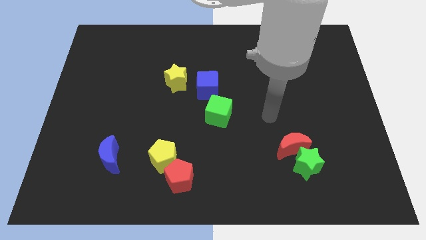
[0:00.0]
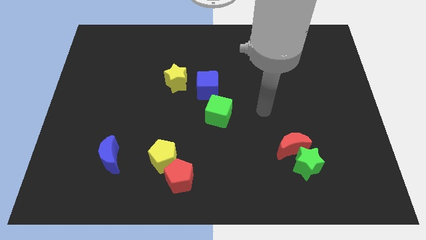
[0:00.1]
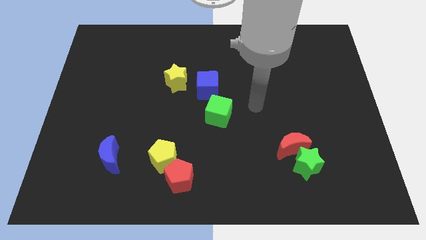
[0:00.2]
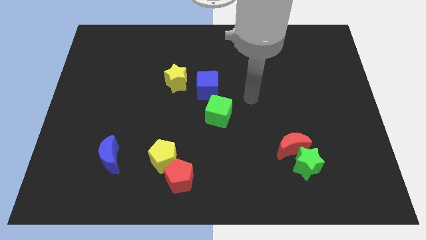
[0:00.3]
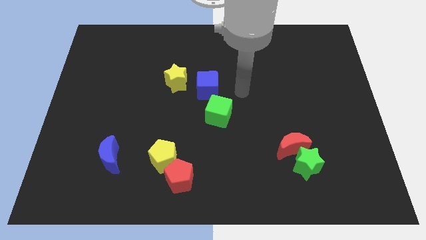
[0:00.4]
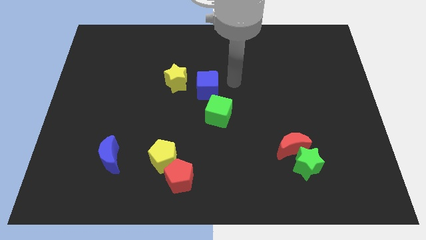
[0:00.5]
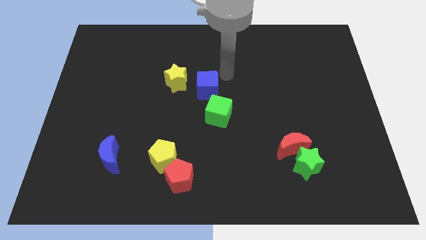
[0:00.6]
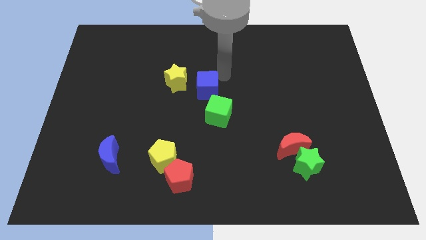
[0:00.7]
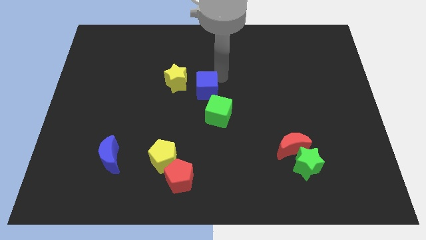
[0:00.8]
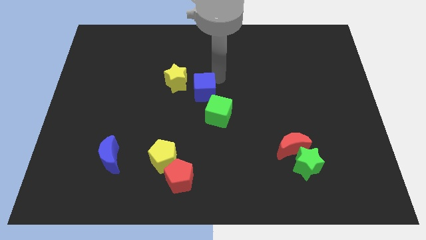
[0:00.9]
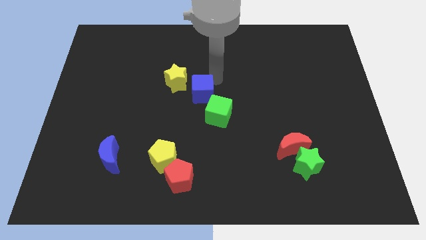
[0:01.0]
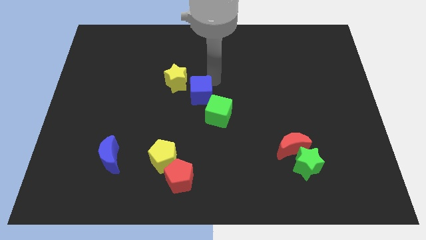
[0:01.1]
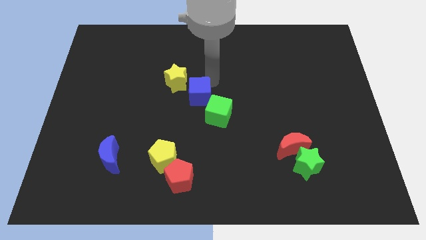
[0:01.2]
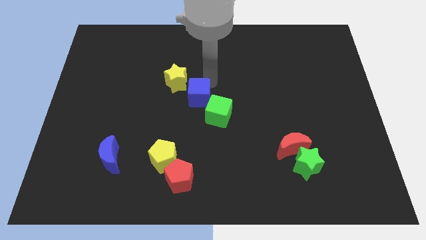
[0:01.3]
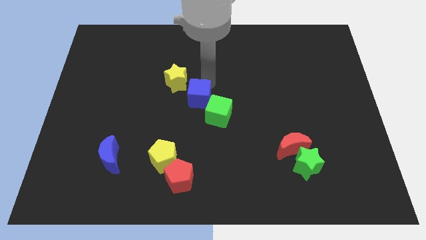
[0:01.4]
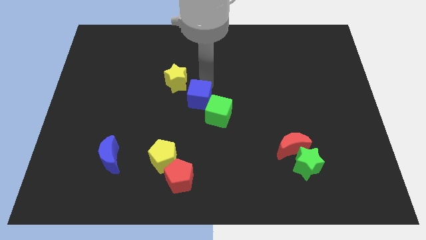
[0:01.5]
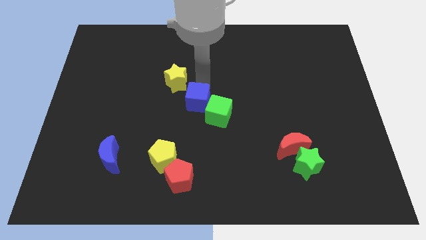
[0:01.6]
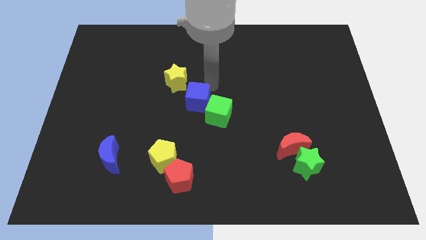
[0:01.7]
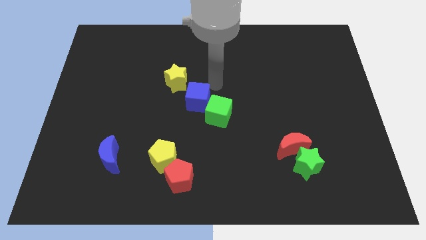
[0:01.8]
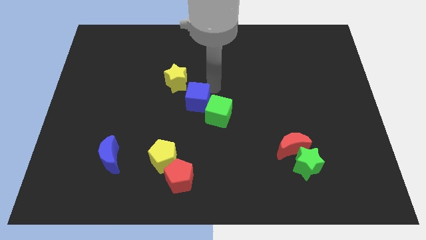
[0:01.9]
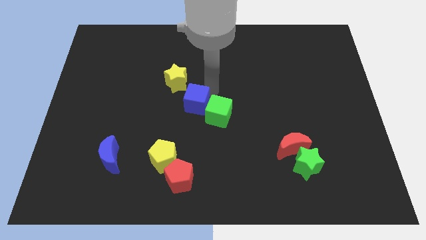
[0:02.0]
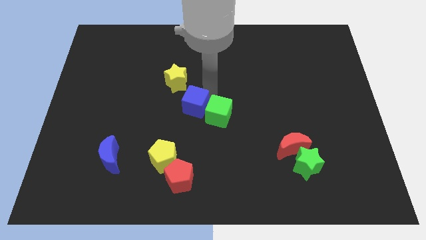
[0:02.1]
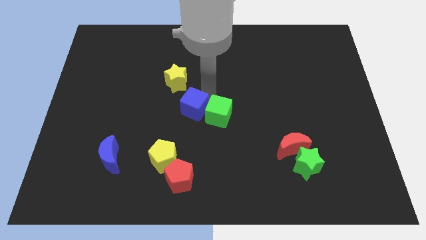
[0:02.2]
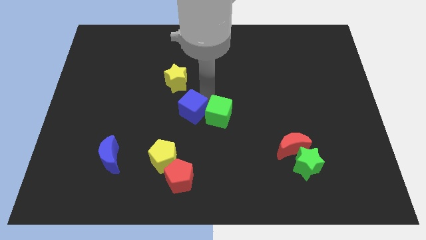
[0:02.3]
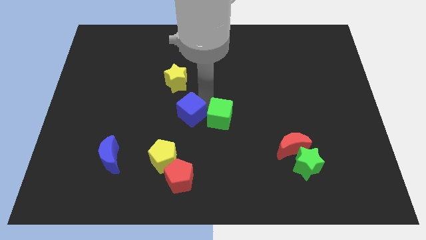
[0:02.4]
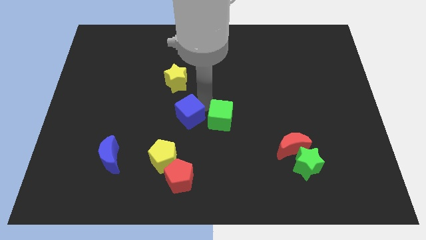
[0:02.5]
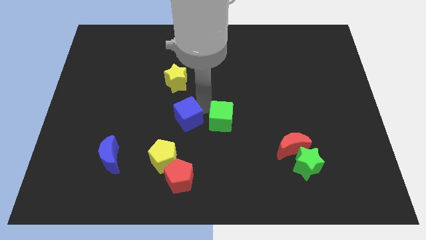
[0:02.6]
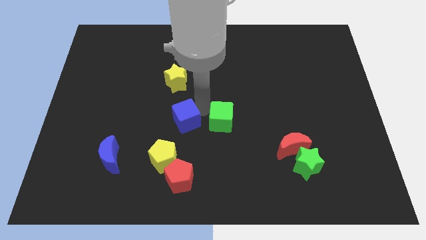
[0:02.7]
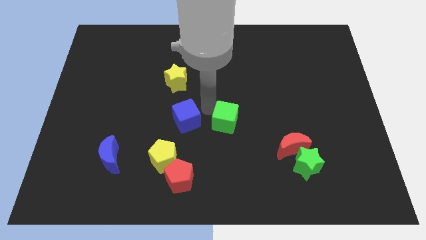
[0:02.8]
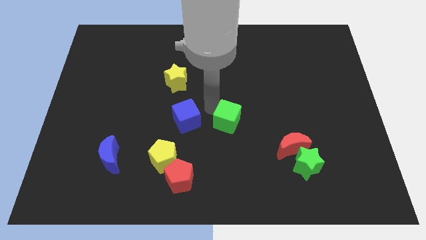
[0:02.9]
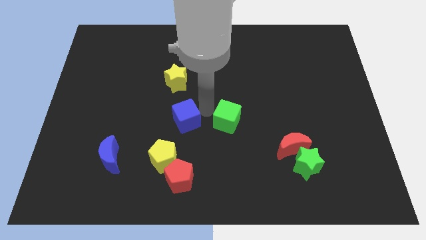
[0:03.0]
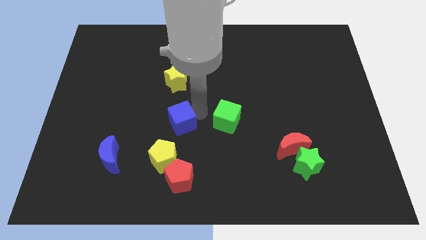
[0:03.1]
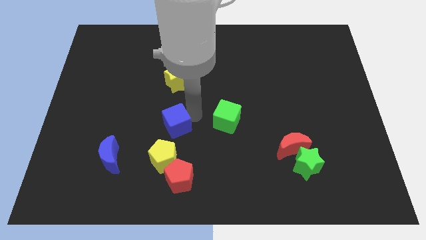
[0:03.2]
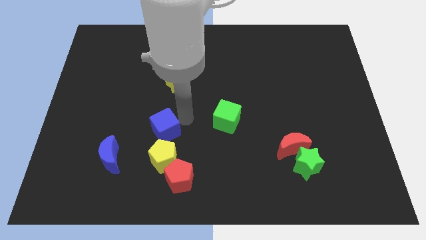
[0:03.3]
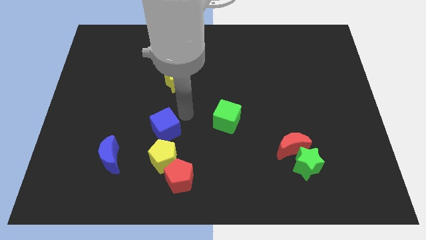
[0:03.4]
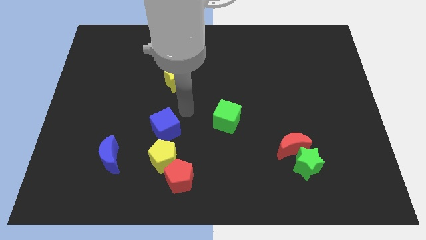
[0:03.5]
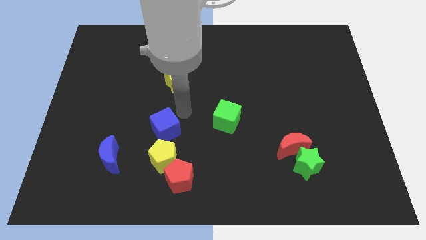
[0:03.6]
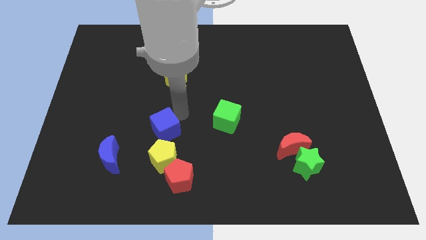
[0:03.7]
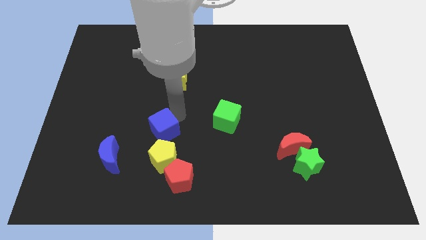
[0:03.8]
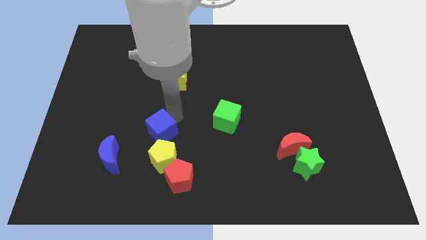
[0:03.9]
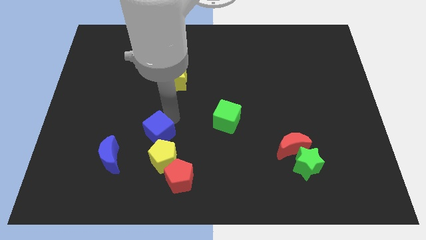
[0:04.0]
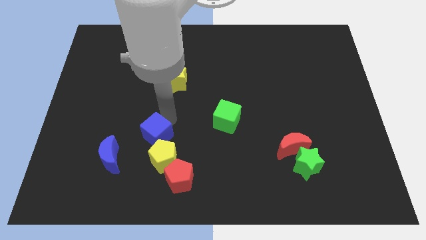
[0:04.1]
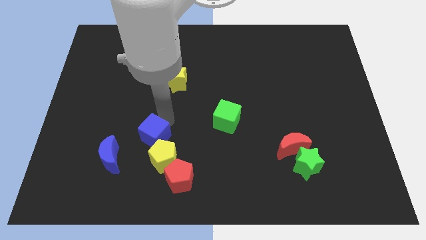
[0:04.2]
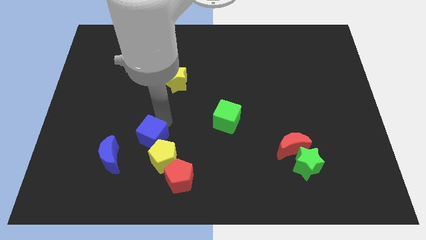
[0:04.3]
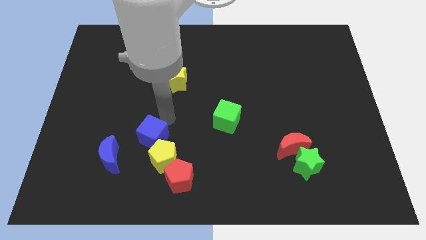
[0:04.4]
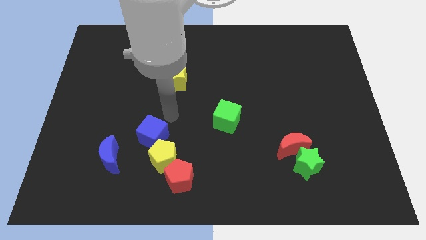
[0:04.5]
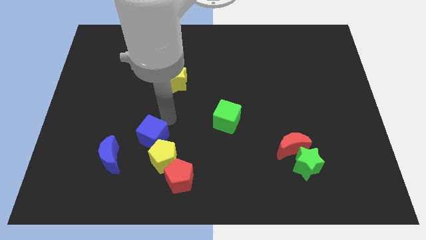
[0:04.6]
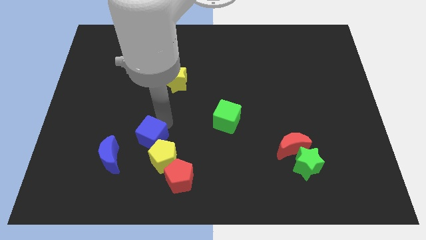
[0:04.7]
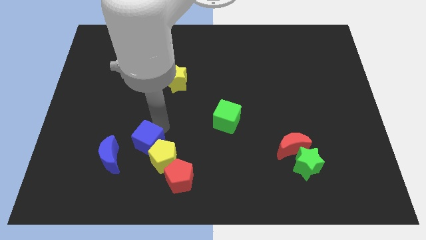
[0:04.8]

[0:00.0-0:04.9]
push the blue cube diagonally downwards and to the left

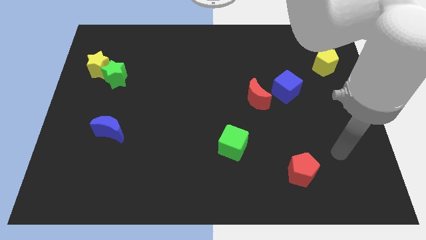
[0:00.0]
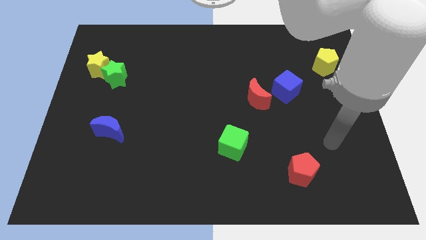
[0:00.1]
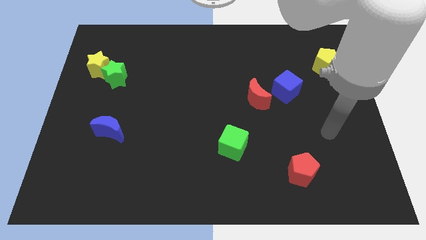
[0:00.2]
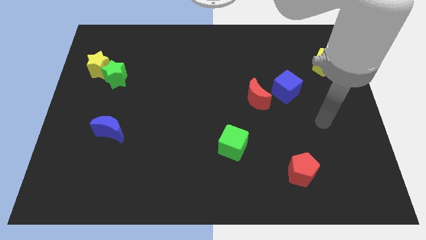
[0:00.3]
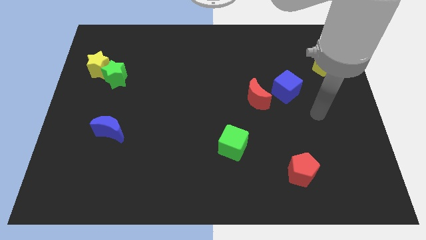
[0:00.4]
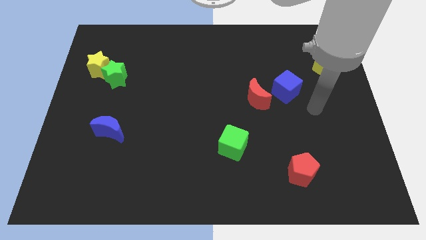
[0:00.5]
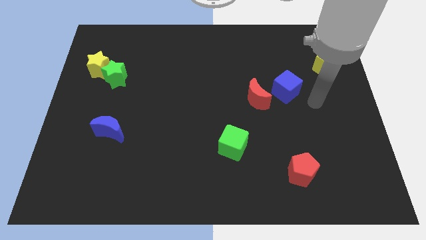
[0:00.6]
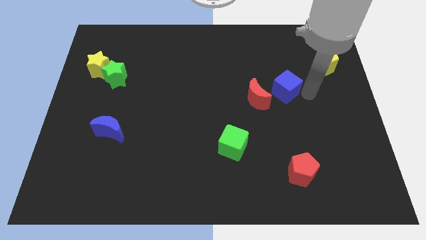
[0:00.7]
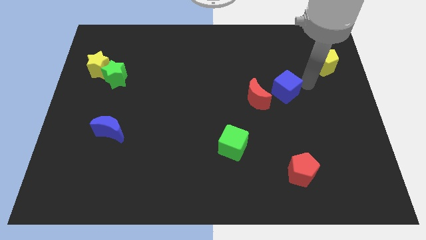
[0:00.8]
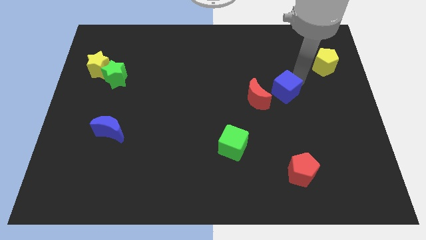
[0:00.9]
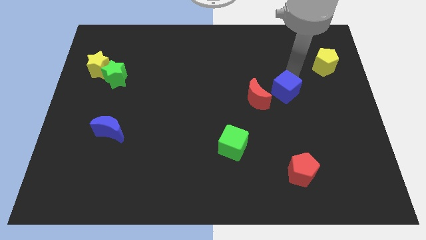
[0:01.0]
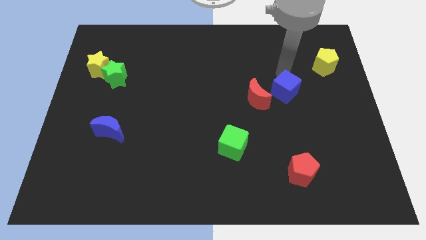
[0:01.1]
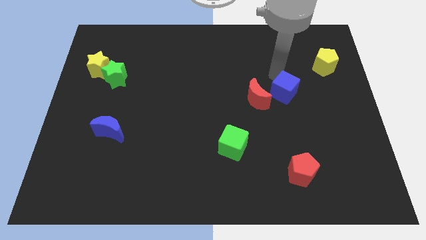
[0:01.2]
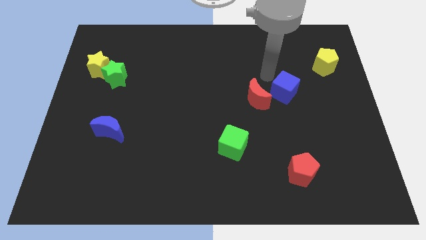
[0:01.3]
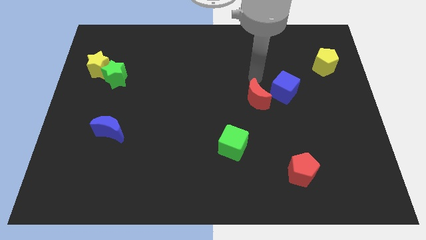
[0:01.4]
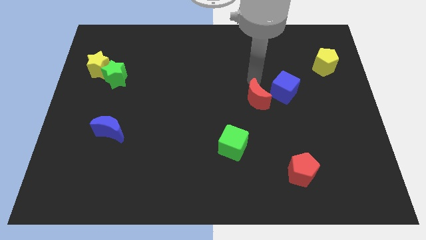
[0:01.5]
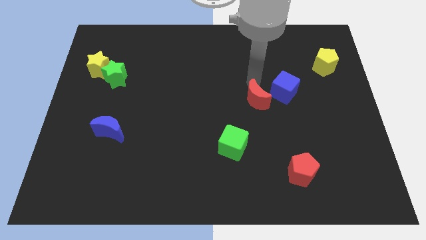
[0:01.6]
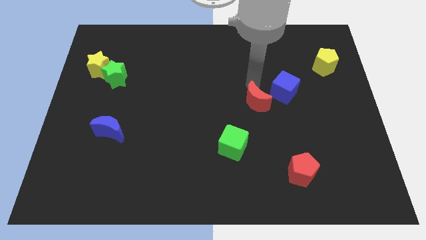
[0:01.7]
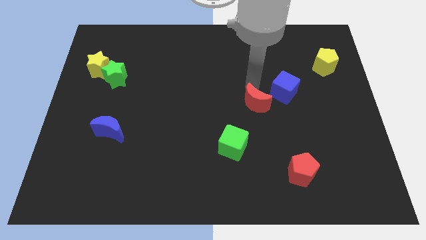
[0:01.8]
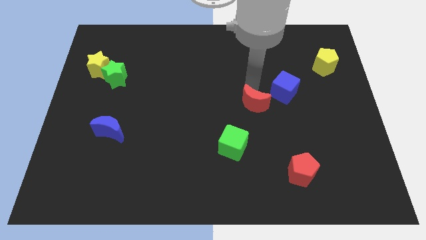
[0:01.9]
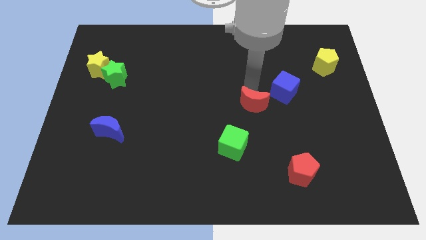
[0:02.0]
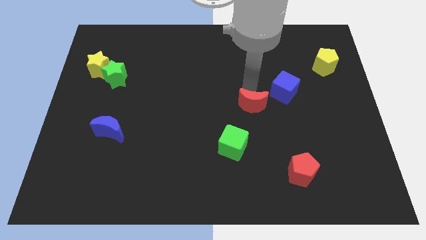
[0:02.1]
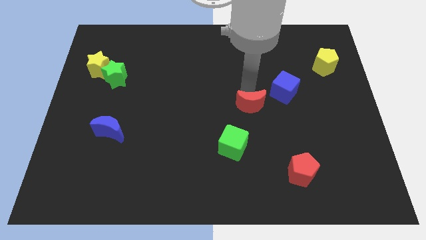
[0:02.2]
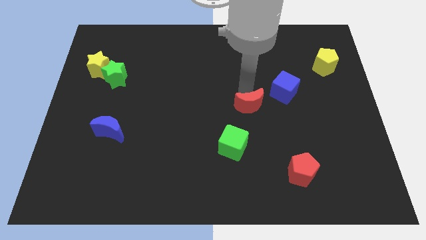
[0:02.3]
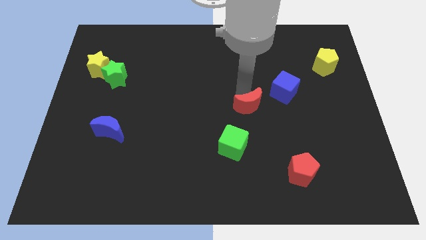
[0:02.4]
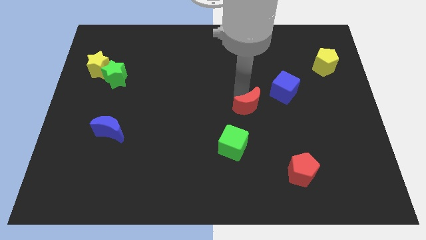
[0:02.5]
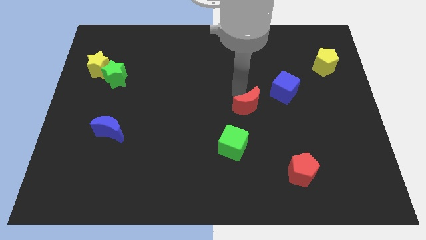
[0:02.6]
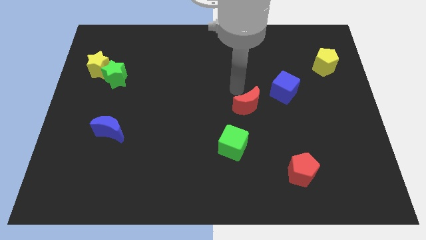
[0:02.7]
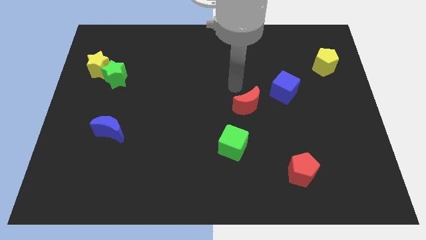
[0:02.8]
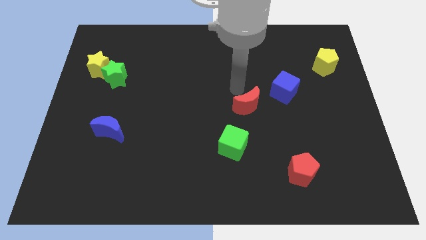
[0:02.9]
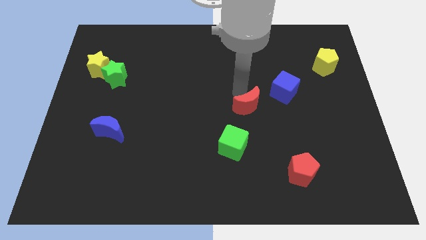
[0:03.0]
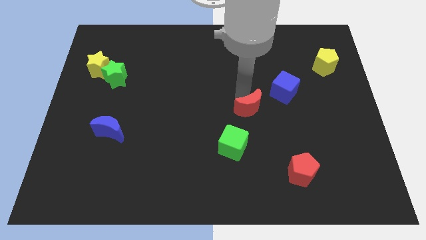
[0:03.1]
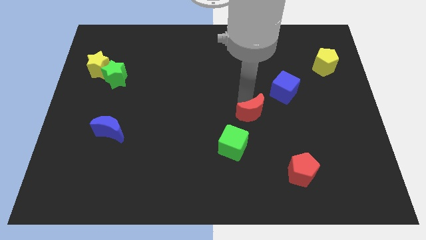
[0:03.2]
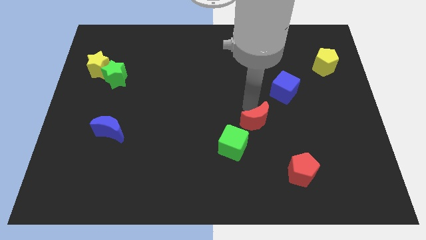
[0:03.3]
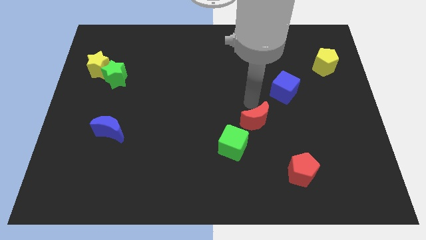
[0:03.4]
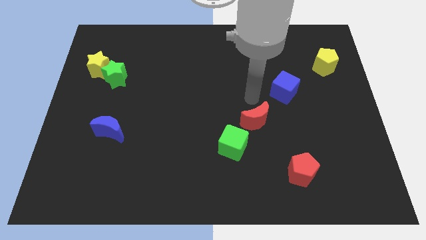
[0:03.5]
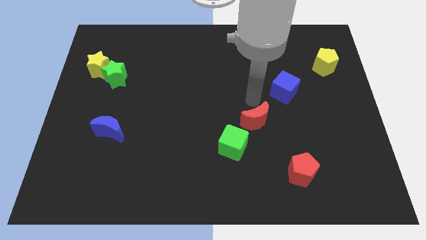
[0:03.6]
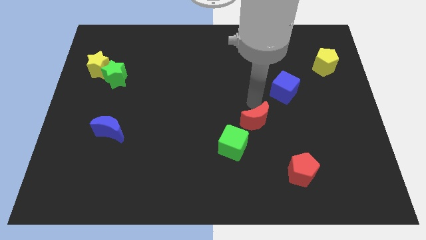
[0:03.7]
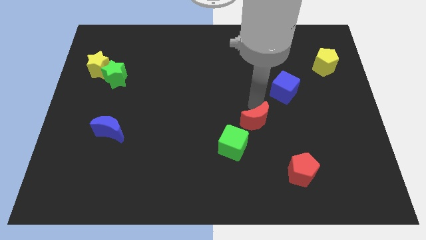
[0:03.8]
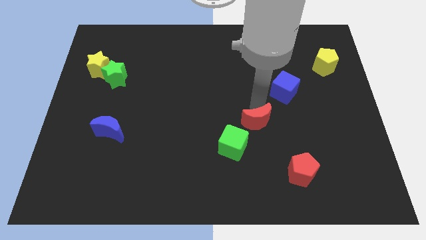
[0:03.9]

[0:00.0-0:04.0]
slightly move the red moon downwards
